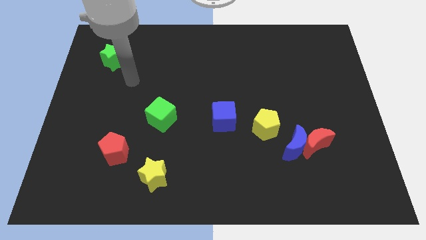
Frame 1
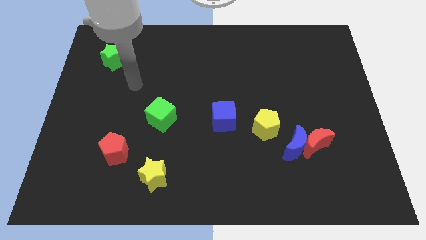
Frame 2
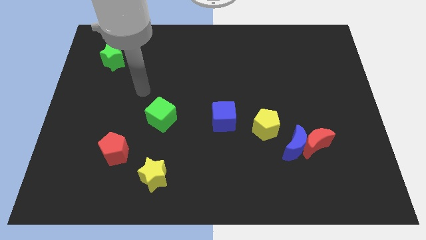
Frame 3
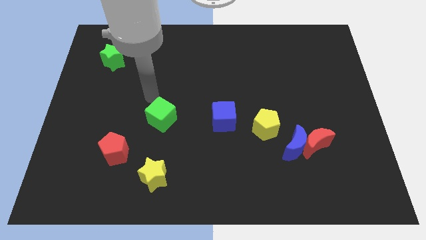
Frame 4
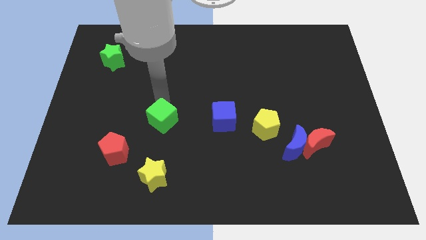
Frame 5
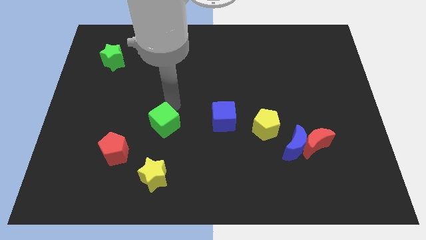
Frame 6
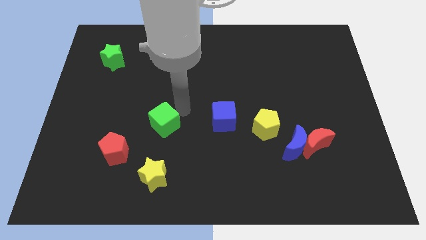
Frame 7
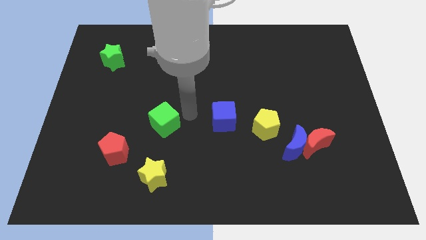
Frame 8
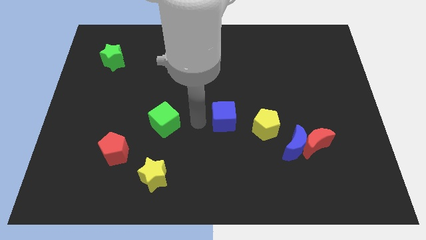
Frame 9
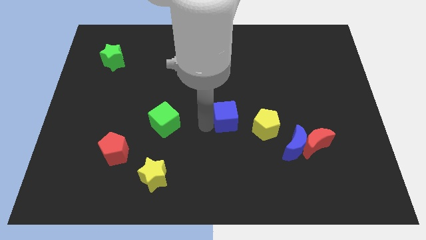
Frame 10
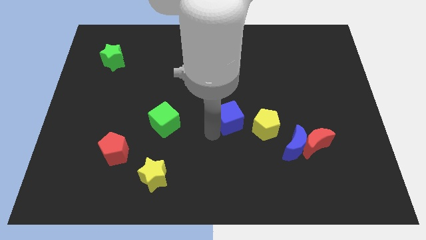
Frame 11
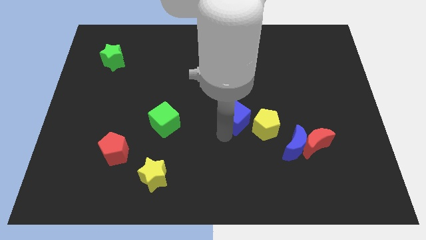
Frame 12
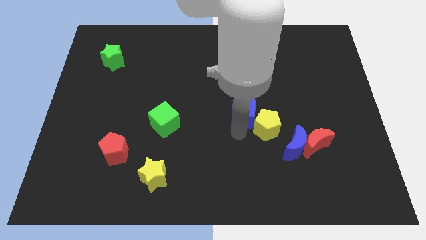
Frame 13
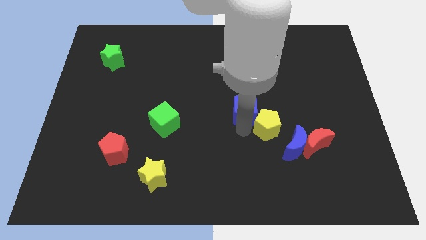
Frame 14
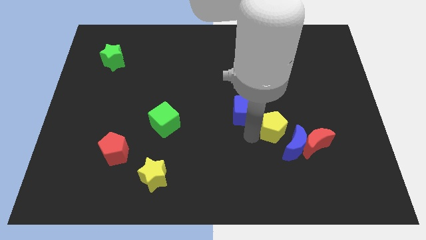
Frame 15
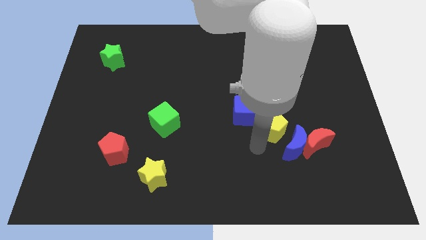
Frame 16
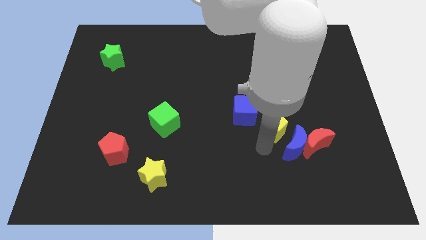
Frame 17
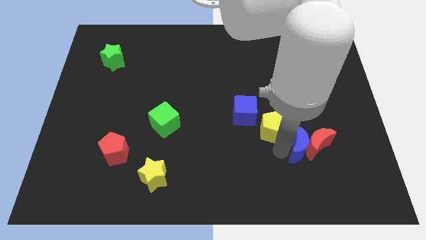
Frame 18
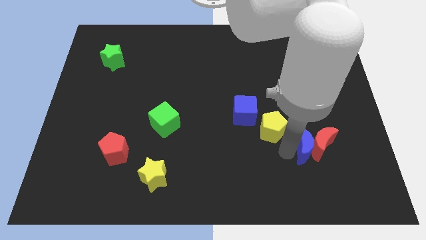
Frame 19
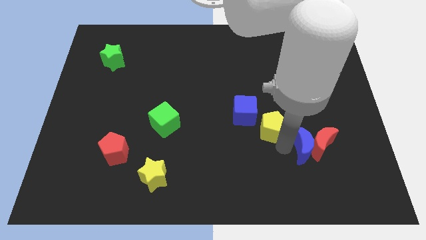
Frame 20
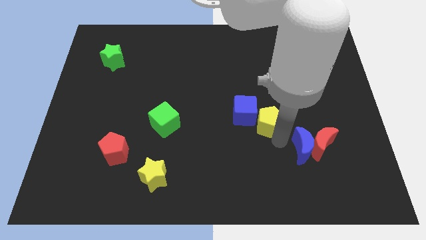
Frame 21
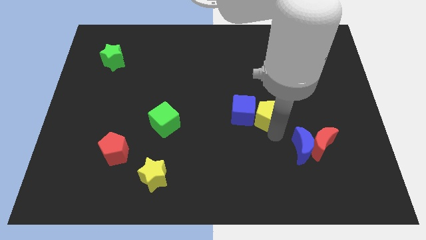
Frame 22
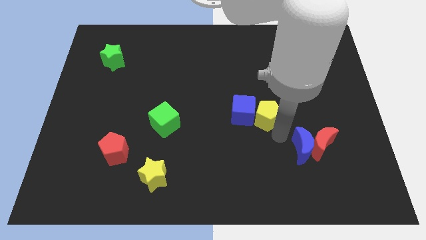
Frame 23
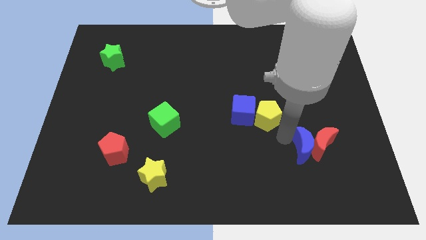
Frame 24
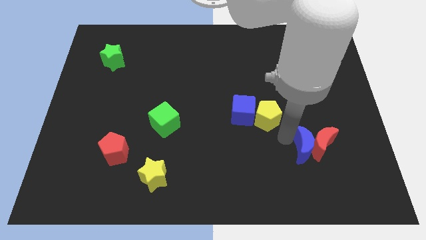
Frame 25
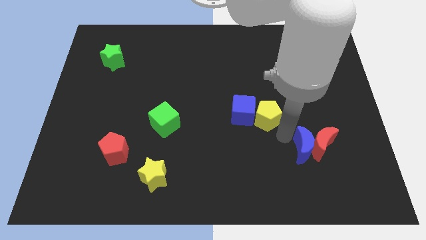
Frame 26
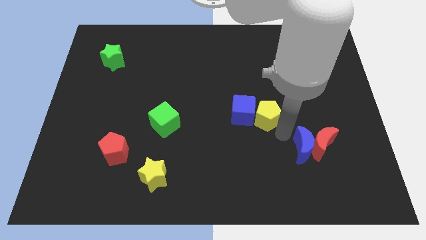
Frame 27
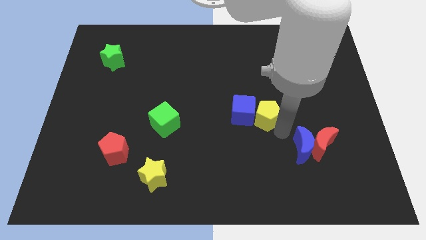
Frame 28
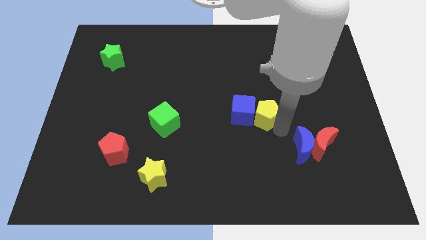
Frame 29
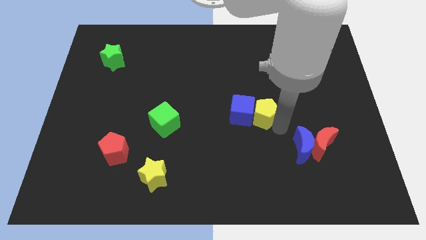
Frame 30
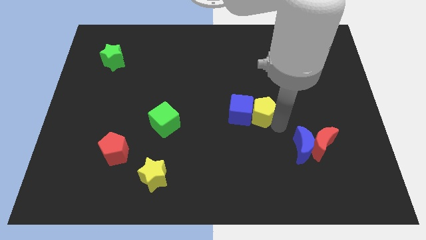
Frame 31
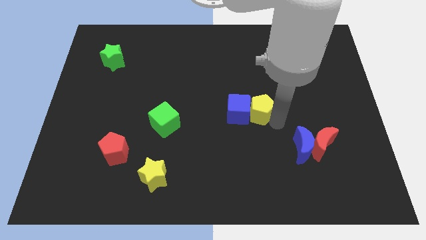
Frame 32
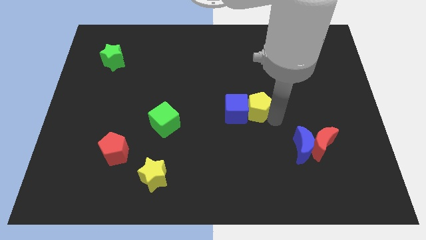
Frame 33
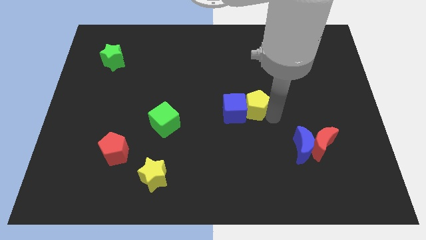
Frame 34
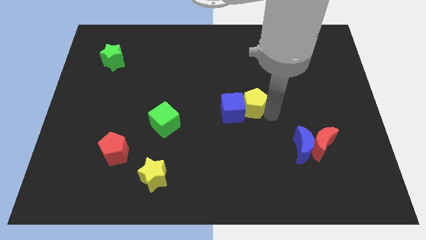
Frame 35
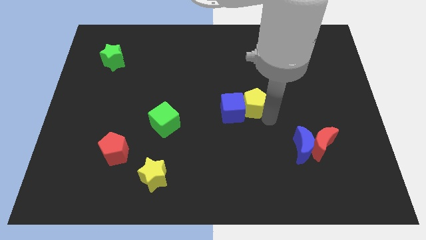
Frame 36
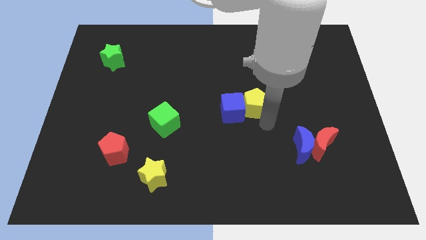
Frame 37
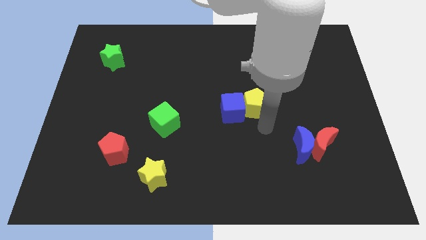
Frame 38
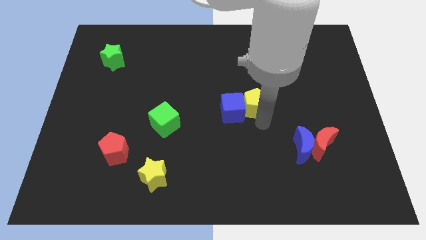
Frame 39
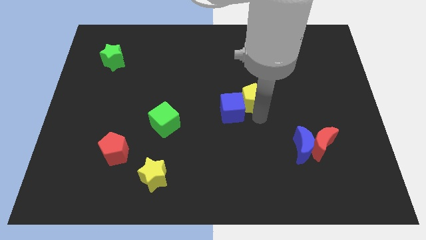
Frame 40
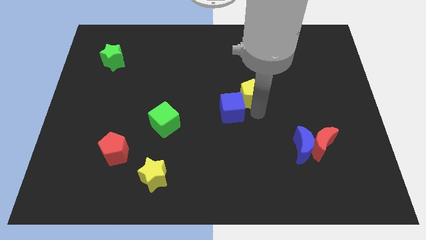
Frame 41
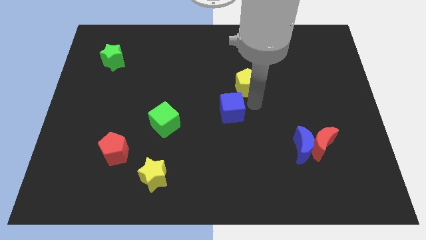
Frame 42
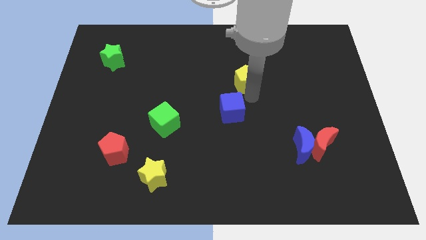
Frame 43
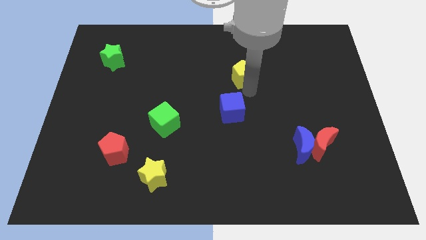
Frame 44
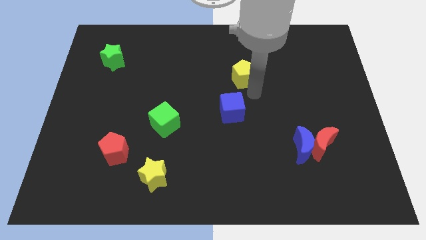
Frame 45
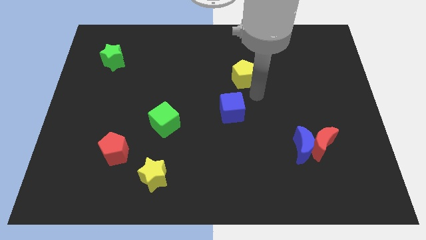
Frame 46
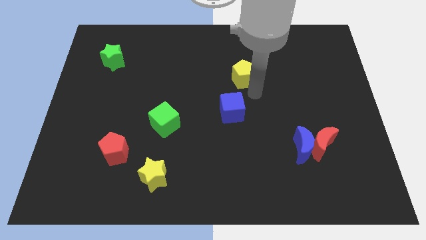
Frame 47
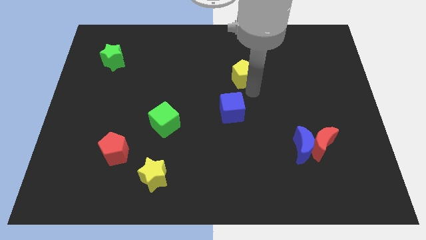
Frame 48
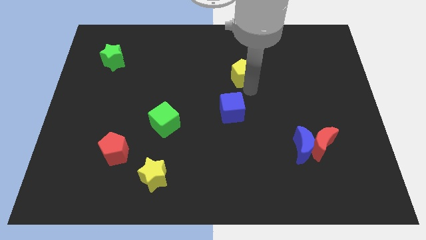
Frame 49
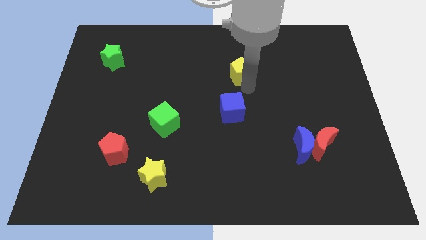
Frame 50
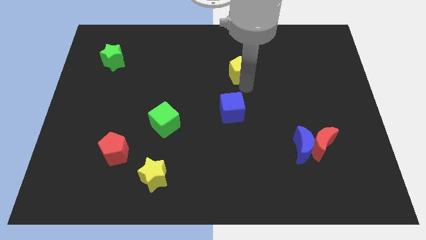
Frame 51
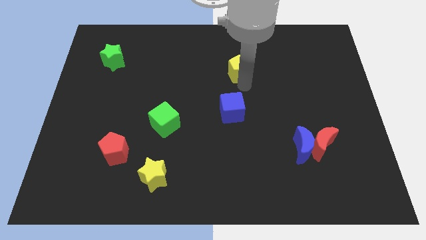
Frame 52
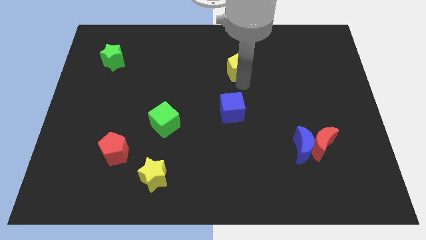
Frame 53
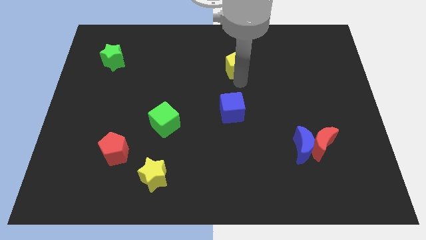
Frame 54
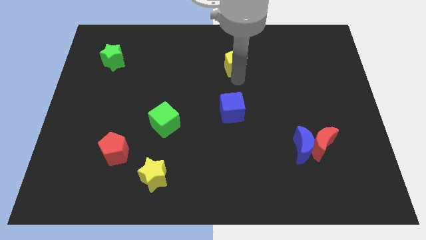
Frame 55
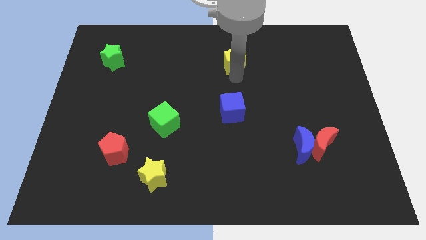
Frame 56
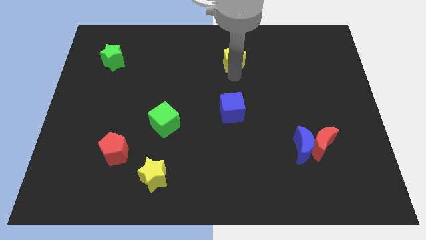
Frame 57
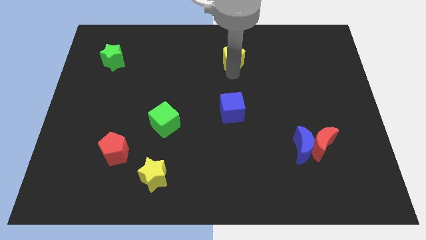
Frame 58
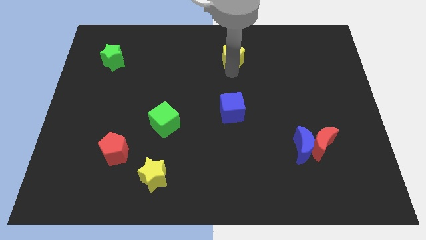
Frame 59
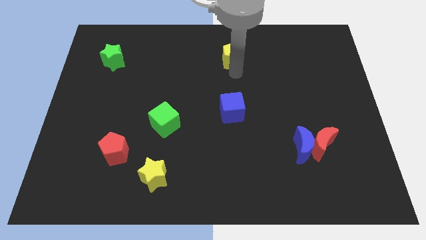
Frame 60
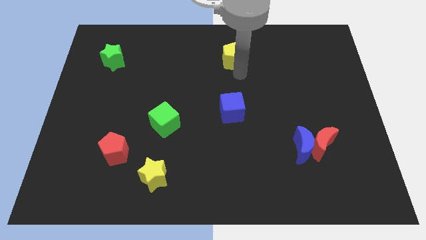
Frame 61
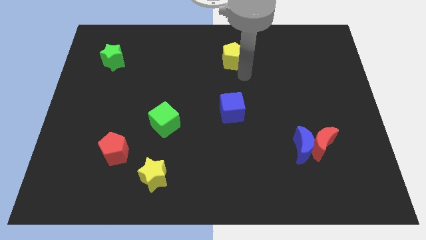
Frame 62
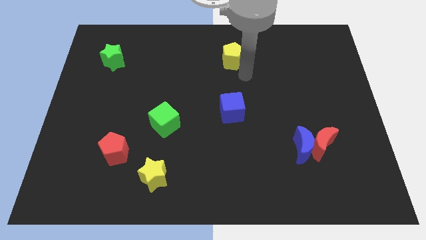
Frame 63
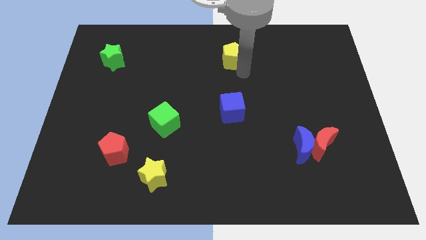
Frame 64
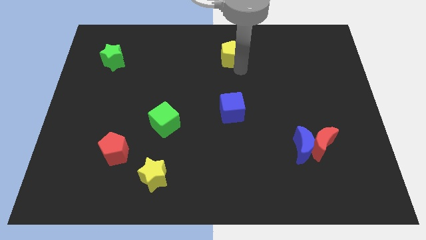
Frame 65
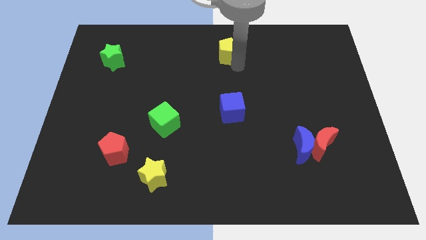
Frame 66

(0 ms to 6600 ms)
put the yellow pentagon to the top

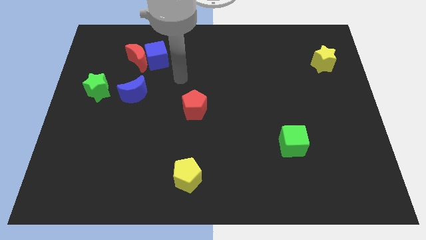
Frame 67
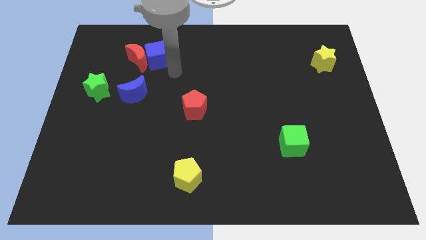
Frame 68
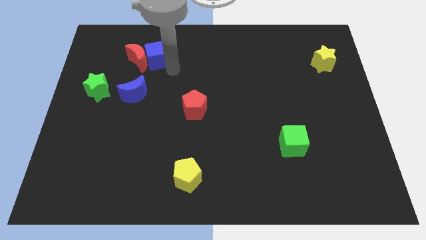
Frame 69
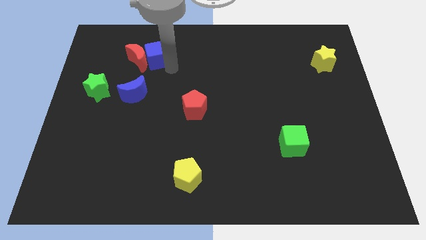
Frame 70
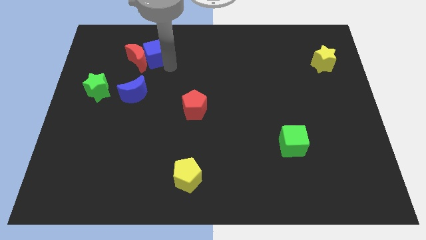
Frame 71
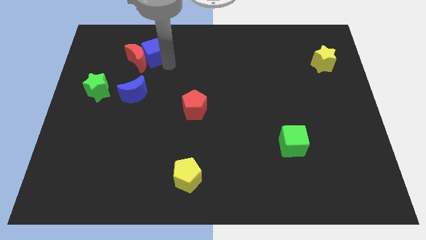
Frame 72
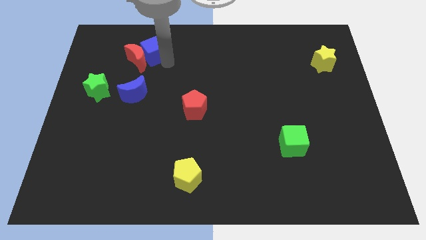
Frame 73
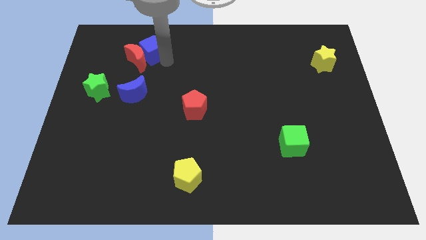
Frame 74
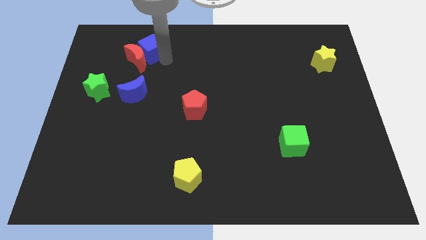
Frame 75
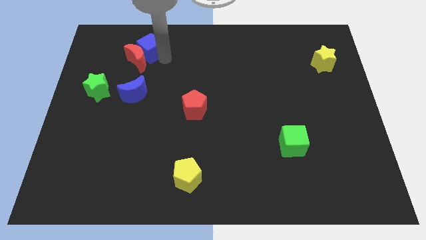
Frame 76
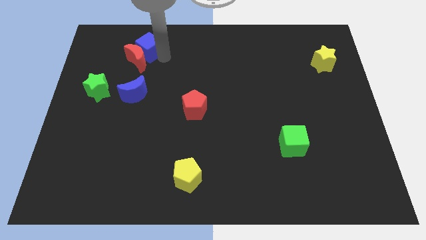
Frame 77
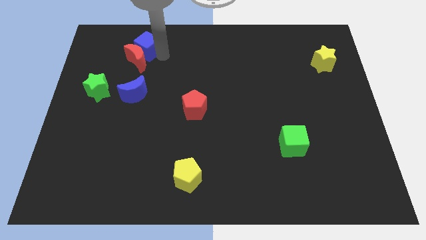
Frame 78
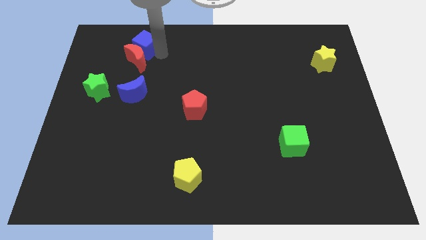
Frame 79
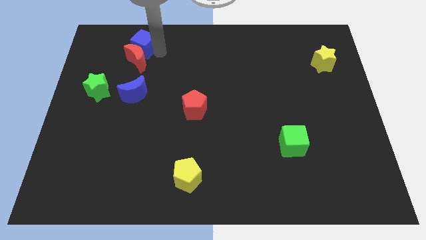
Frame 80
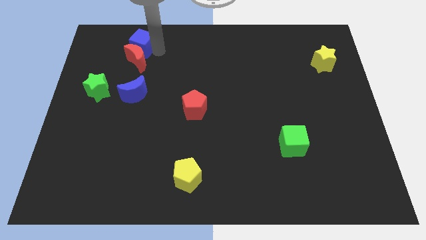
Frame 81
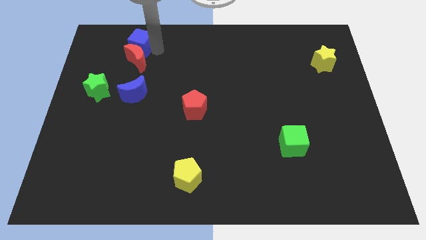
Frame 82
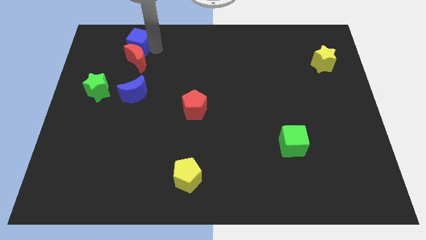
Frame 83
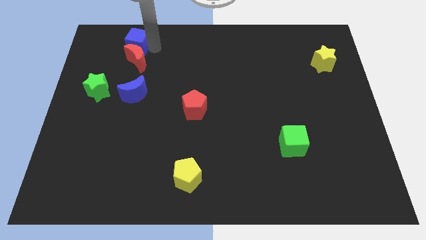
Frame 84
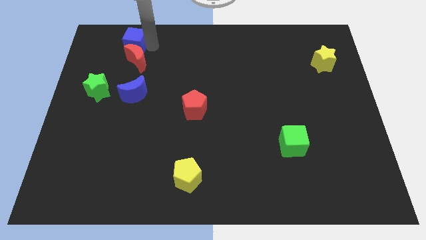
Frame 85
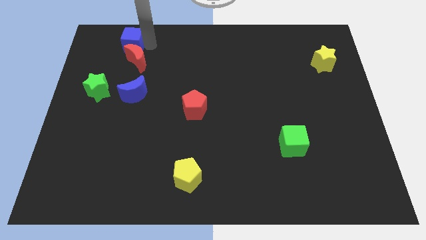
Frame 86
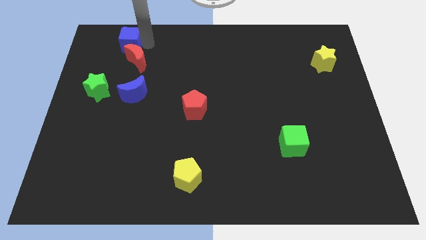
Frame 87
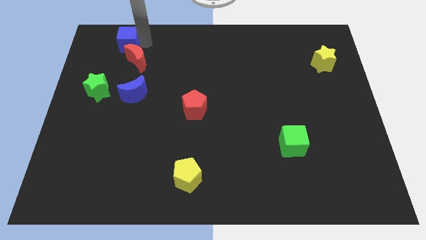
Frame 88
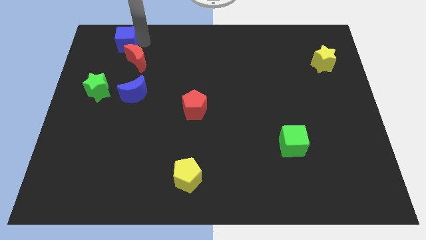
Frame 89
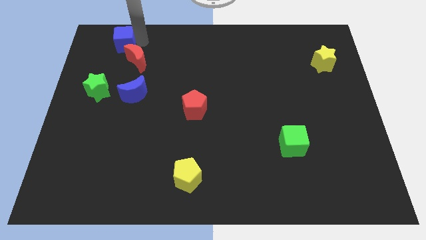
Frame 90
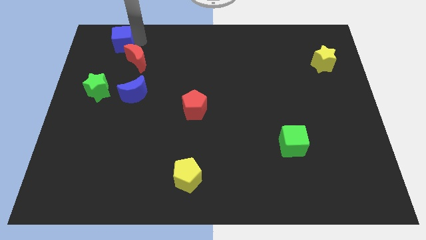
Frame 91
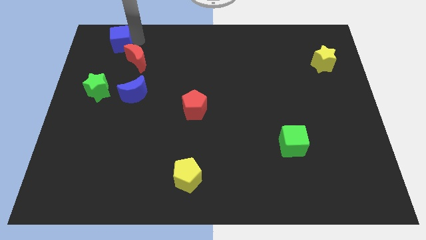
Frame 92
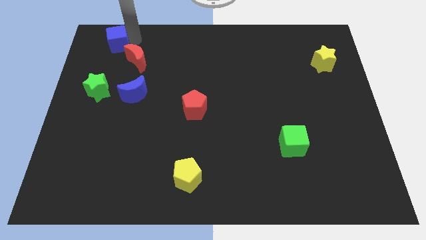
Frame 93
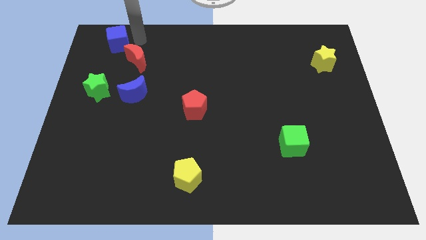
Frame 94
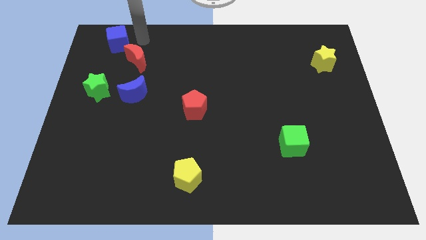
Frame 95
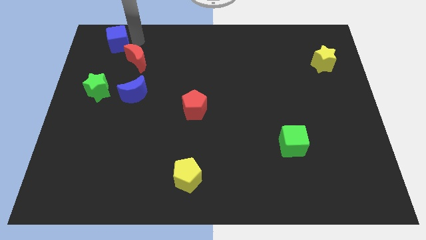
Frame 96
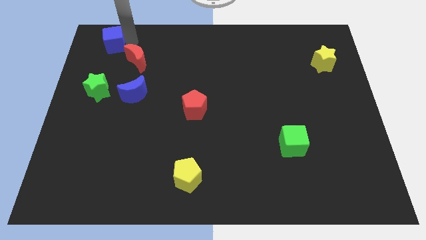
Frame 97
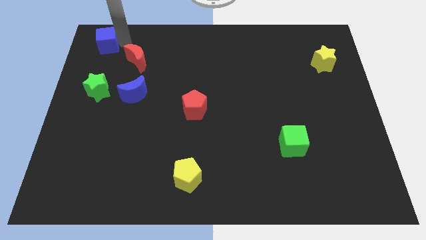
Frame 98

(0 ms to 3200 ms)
push the blue cube to the top left corner
